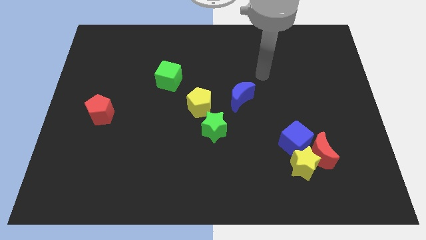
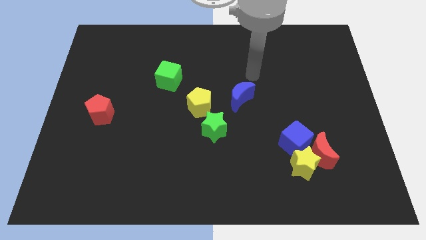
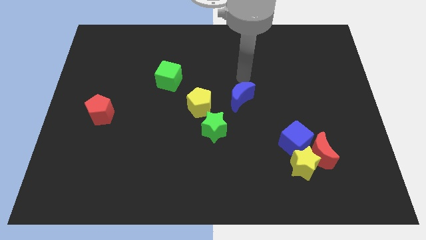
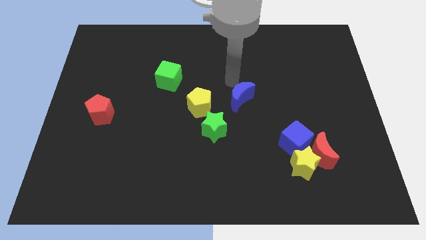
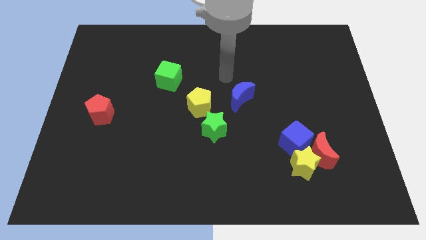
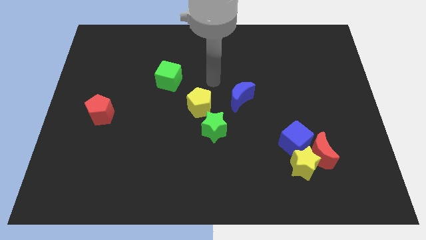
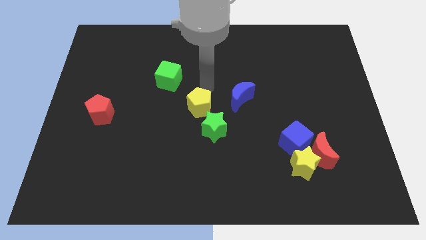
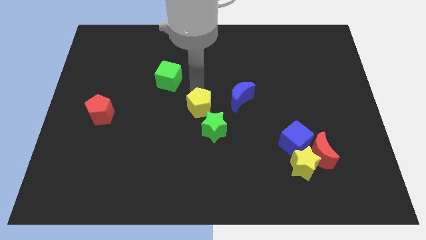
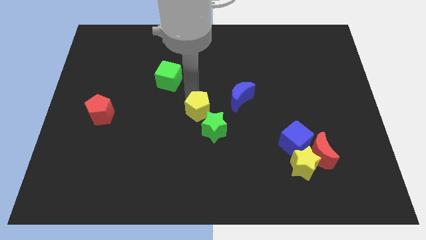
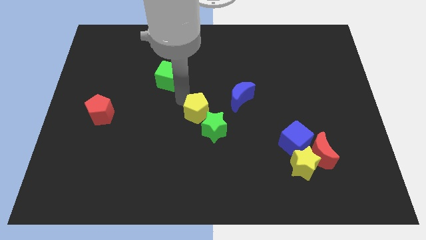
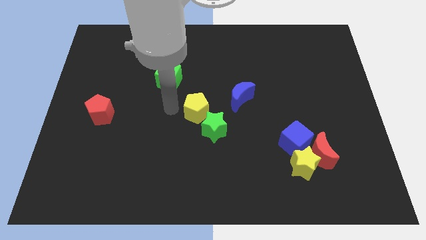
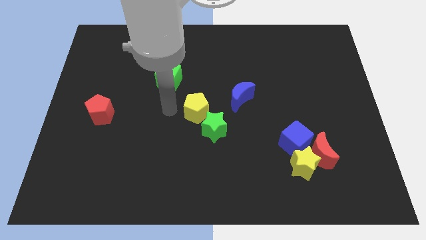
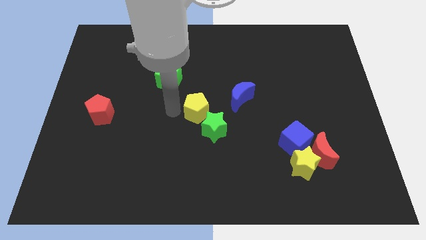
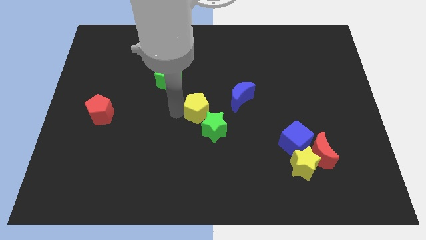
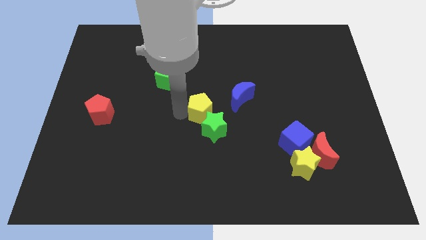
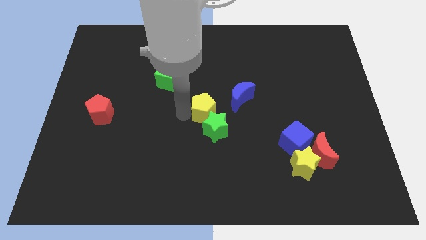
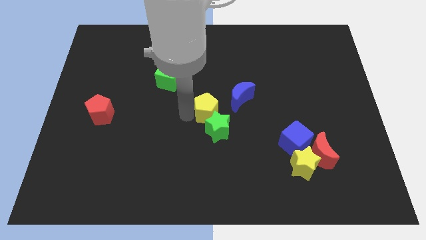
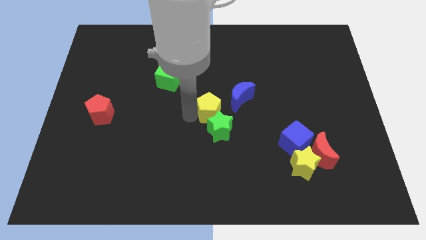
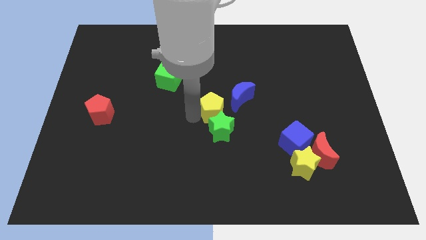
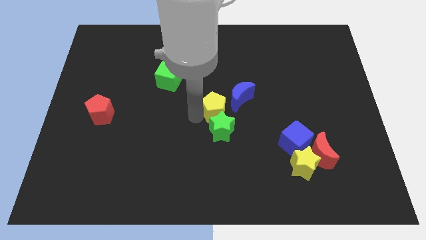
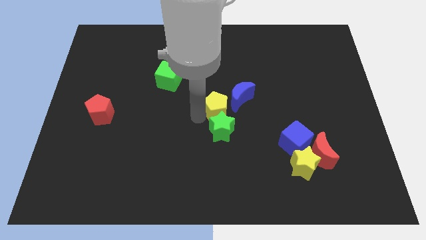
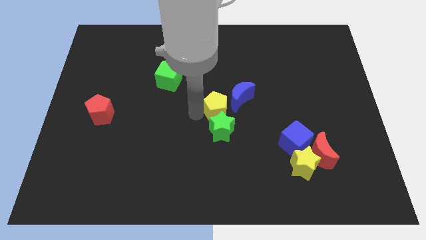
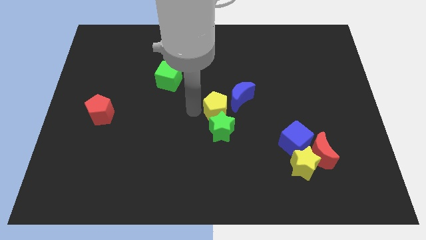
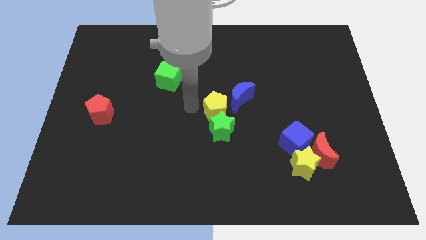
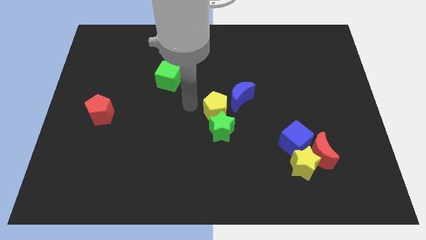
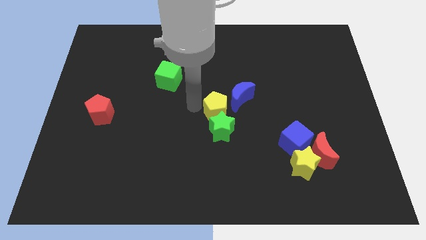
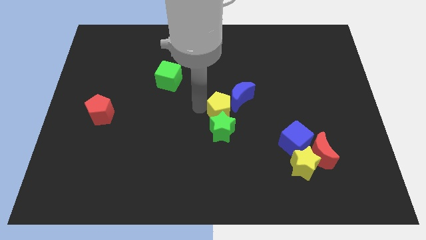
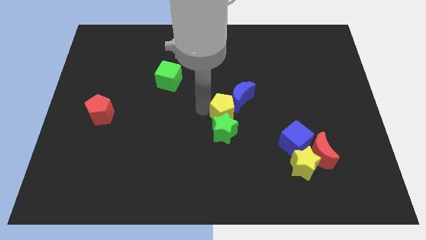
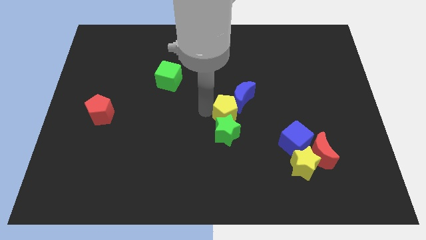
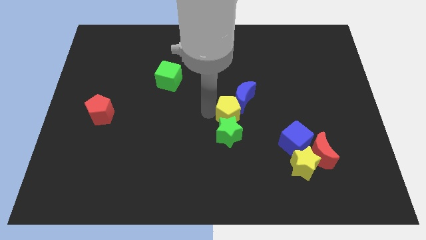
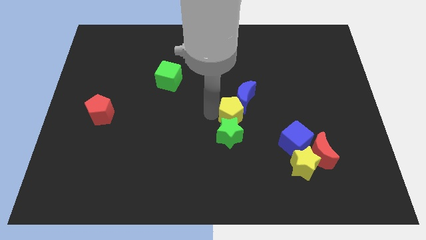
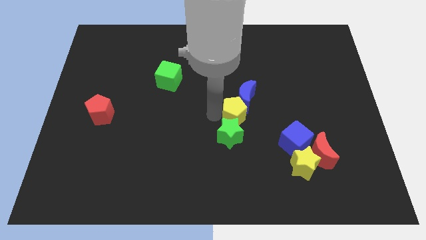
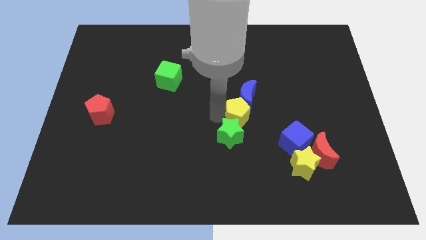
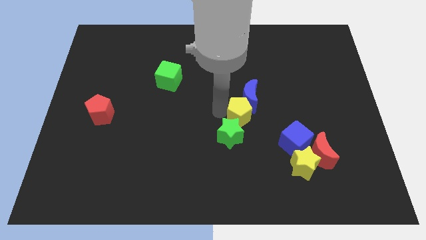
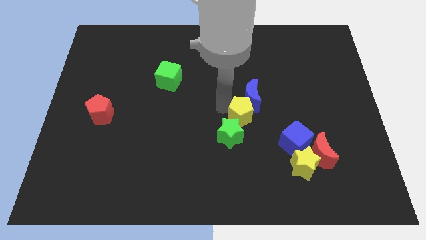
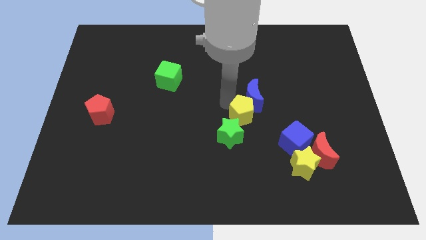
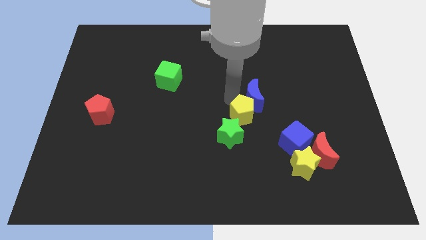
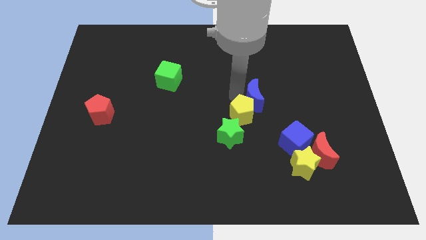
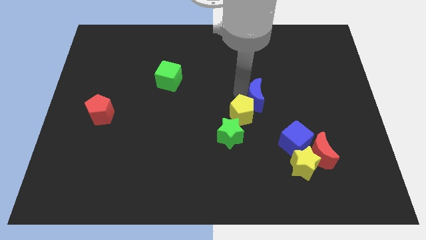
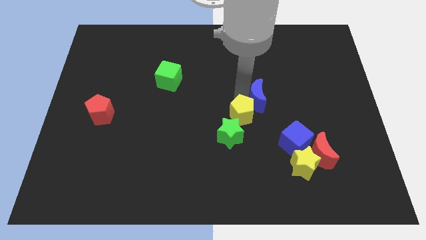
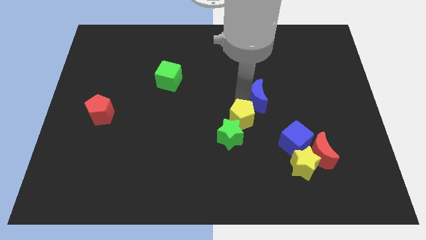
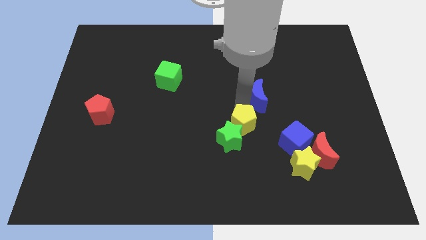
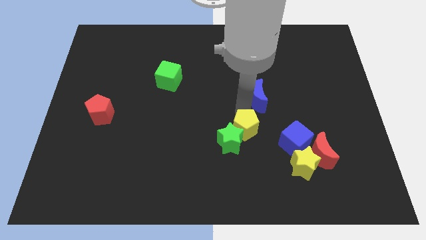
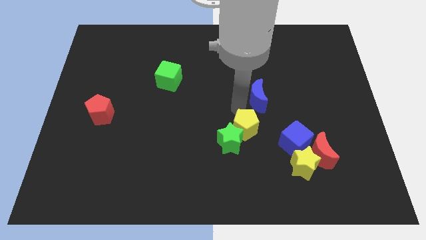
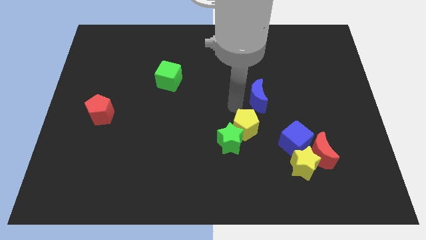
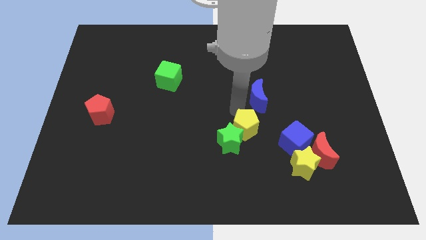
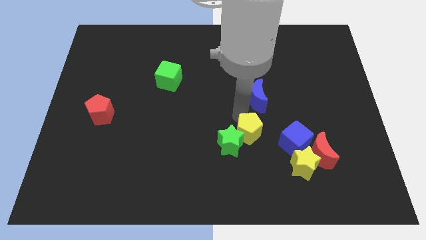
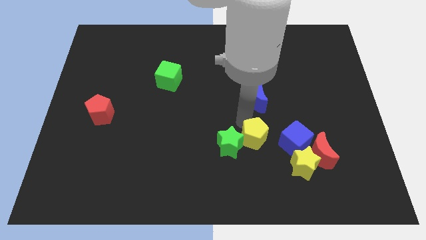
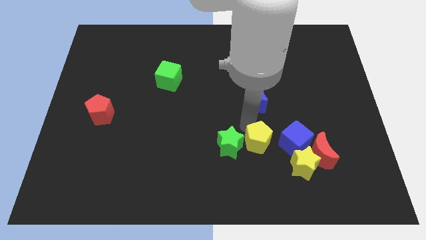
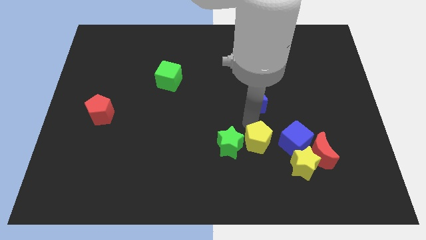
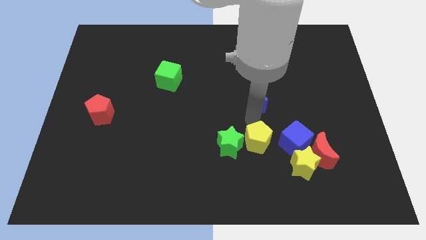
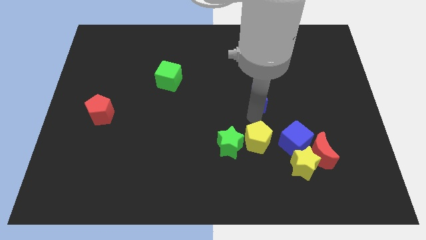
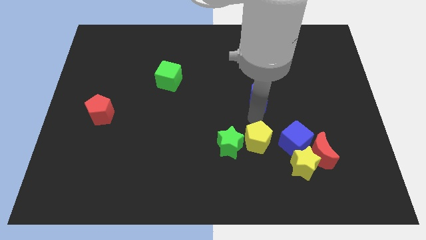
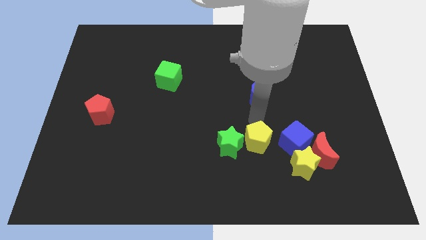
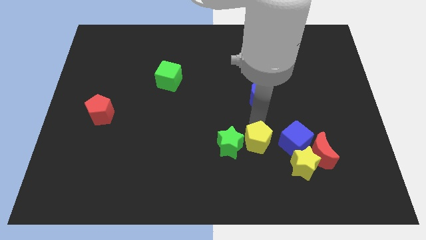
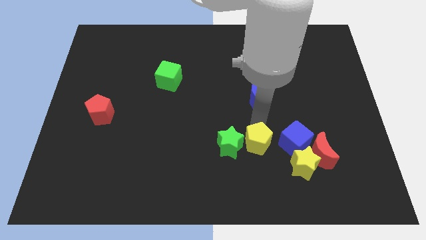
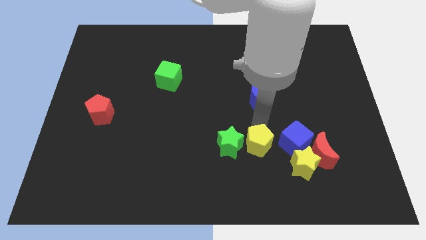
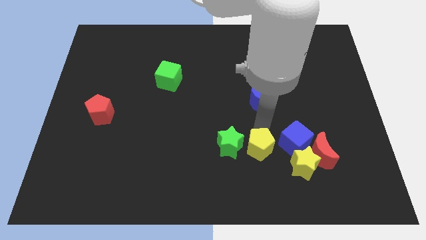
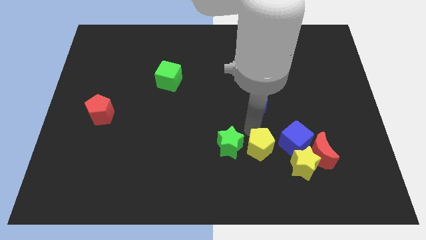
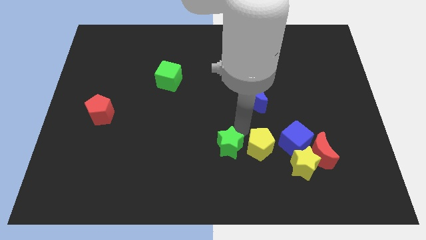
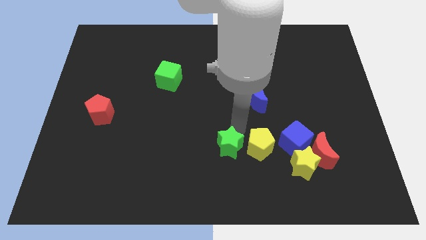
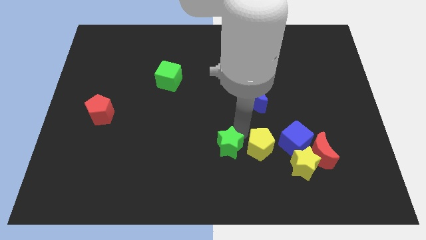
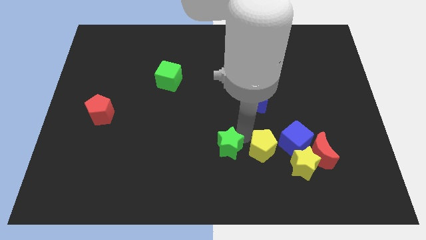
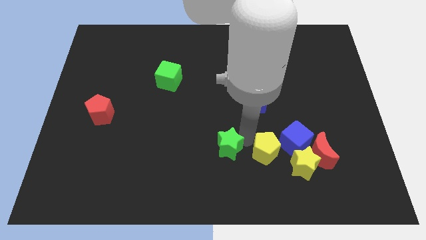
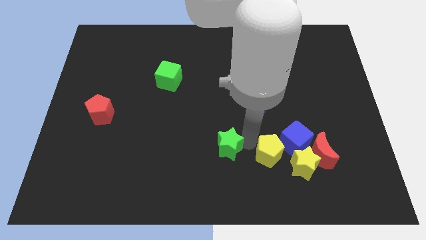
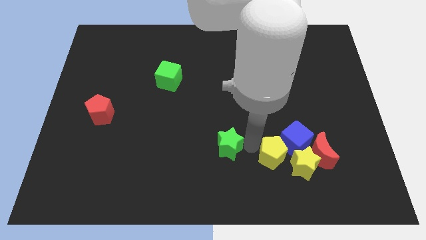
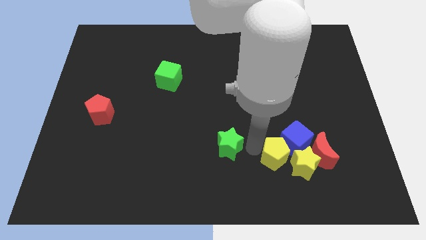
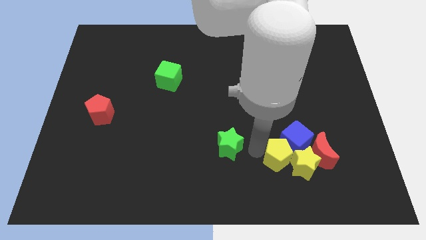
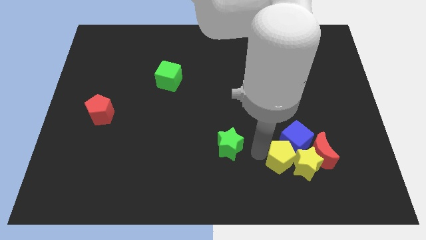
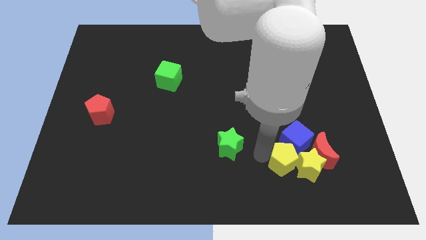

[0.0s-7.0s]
push the yellow pentagon diagonally down and to the left of the red moon

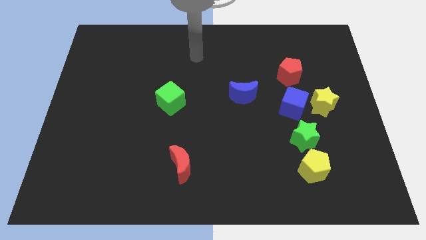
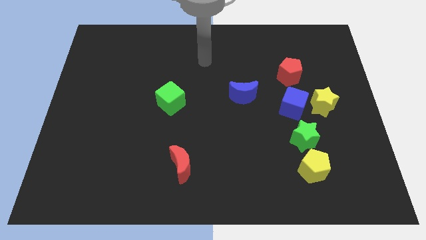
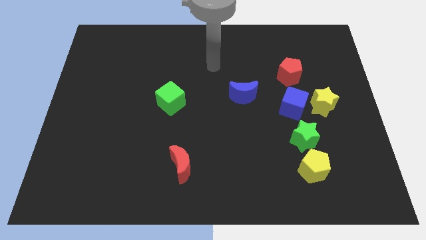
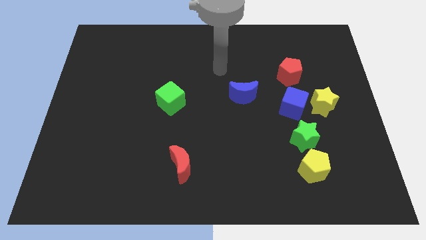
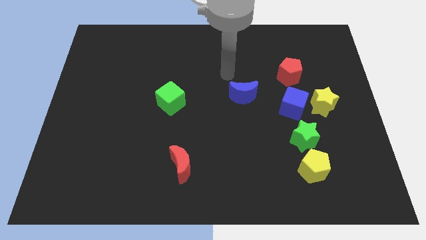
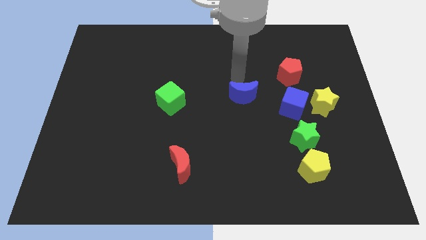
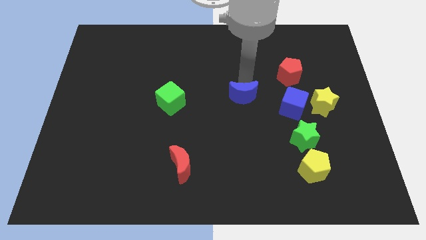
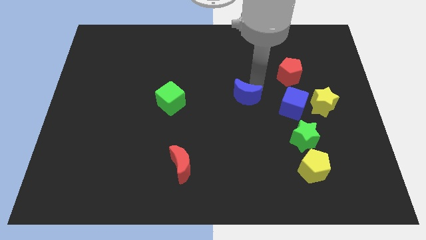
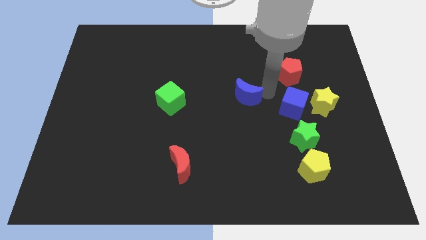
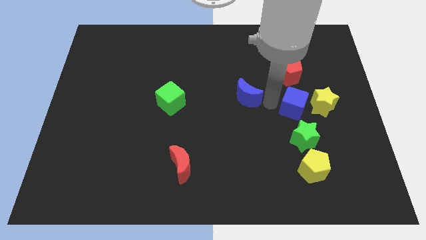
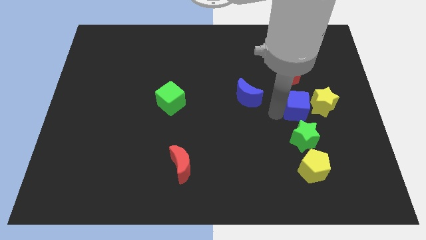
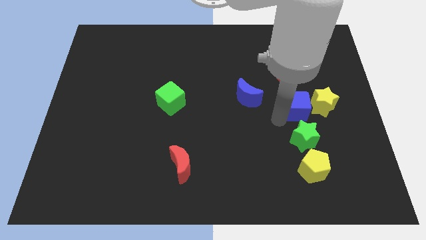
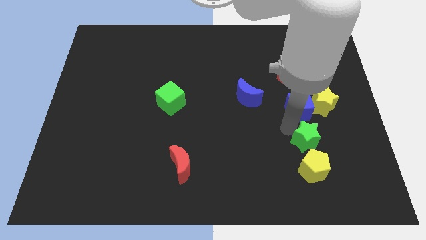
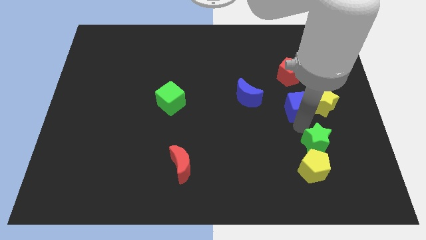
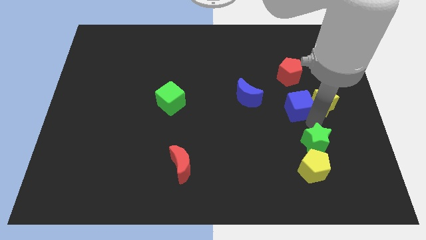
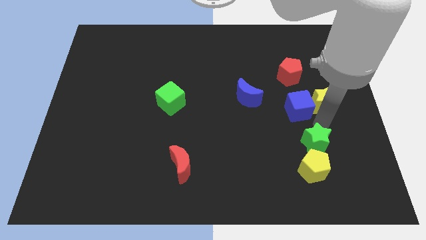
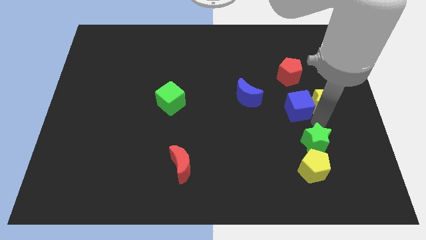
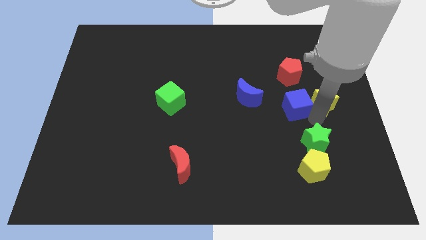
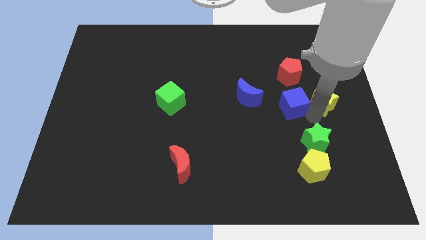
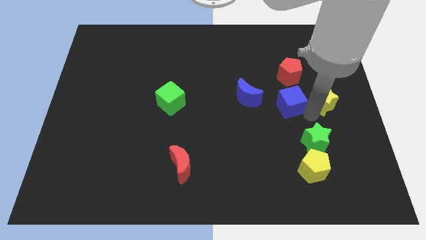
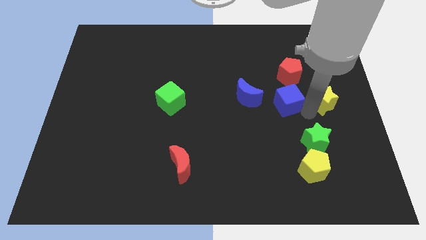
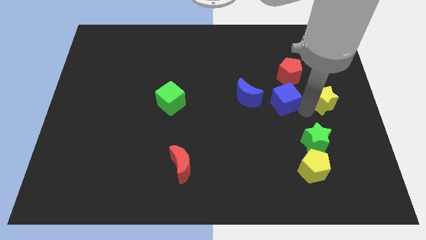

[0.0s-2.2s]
push the blue cube to the bottom left of the red pentagon
